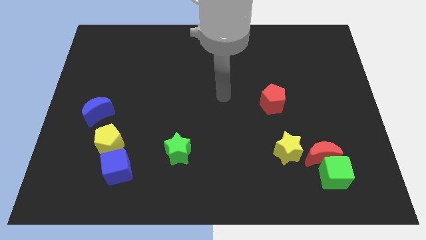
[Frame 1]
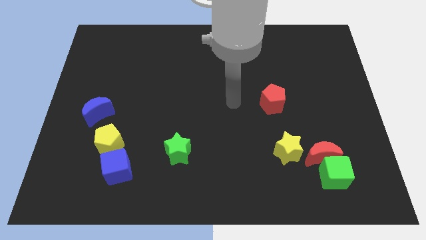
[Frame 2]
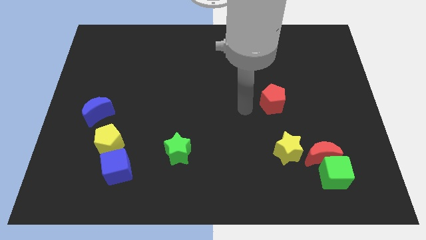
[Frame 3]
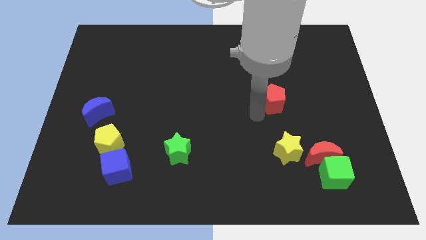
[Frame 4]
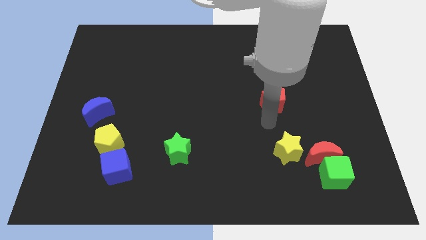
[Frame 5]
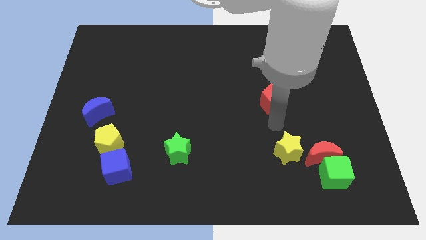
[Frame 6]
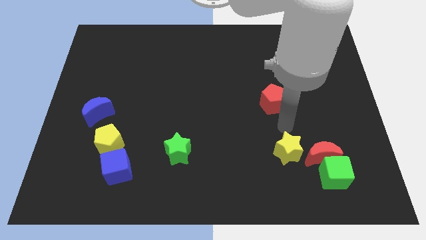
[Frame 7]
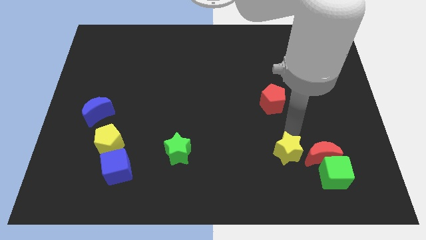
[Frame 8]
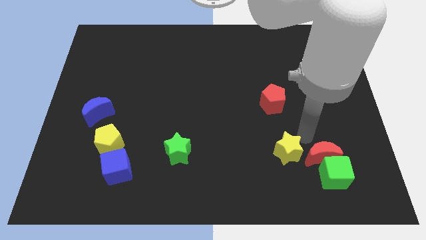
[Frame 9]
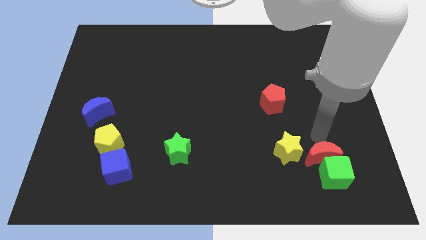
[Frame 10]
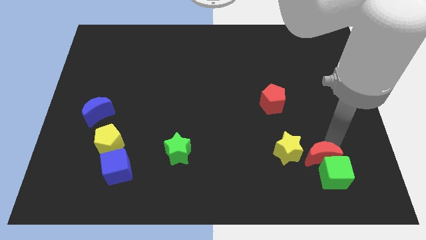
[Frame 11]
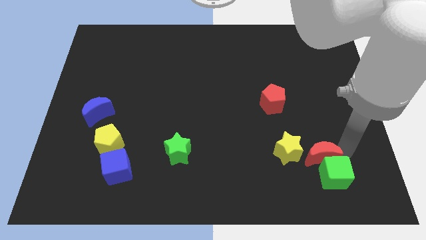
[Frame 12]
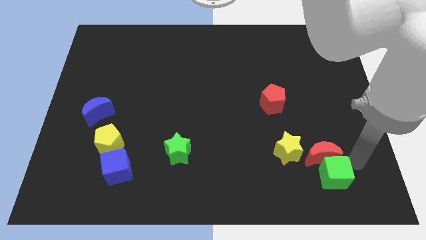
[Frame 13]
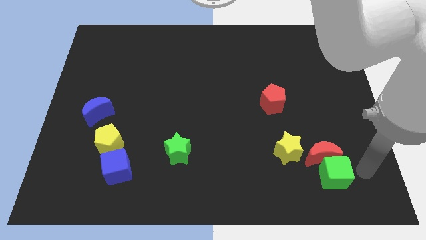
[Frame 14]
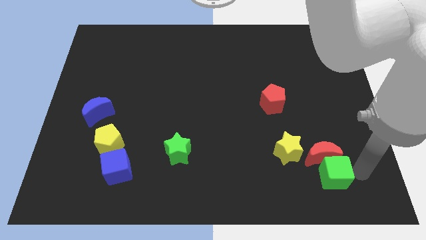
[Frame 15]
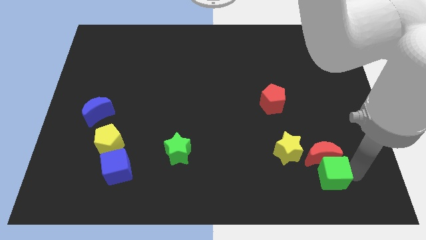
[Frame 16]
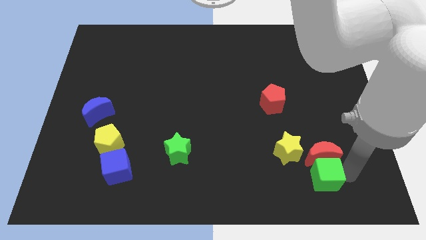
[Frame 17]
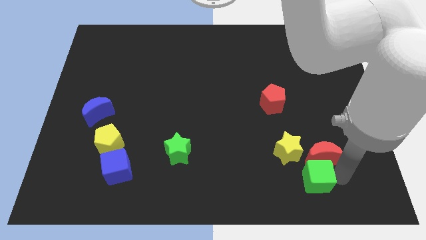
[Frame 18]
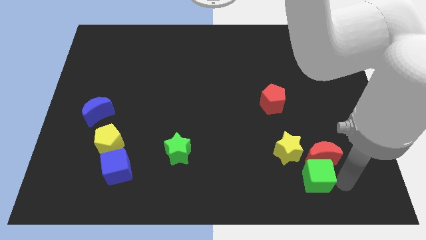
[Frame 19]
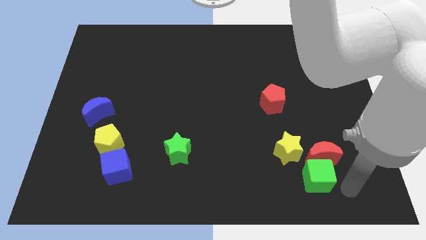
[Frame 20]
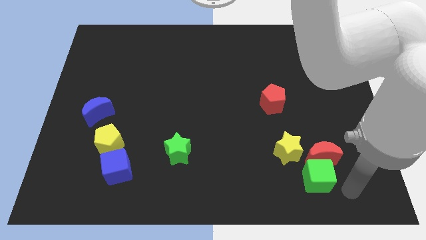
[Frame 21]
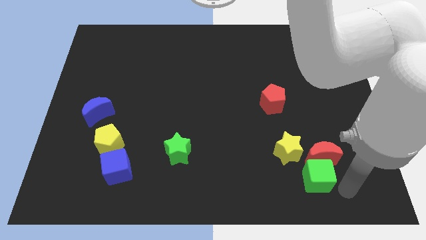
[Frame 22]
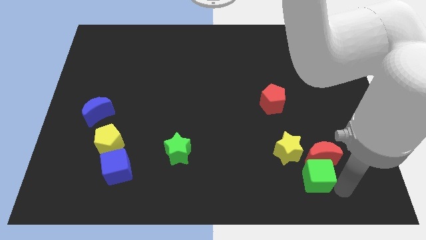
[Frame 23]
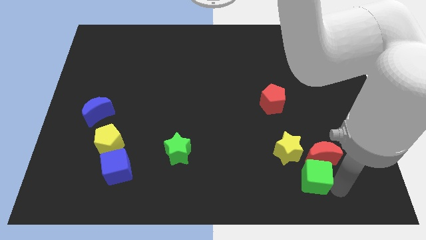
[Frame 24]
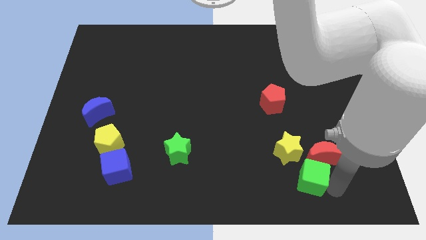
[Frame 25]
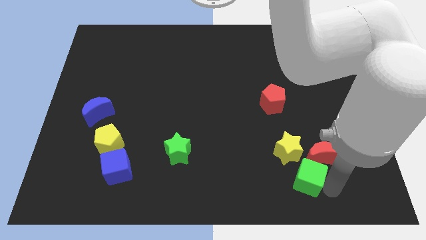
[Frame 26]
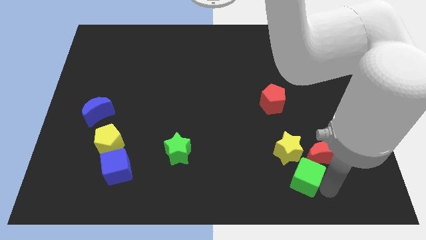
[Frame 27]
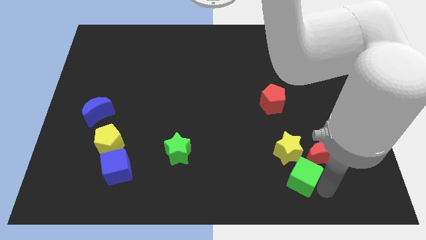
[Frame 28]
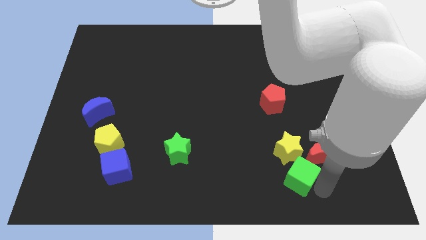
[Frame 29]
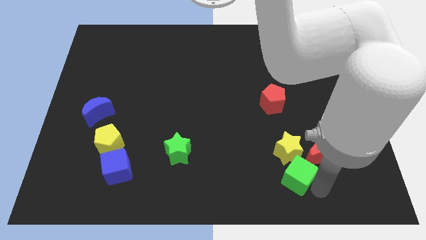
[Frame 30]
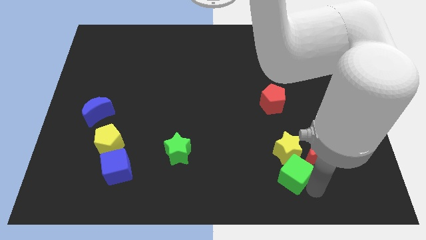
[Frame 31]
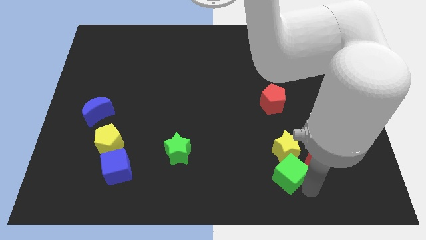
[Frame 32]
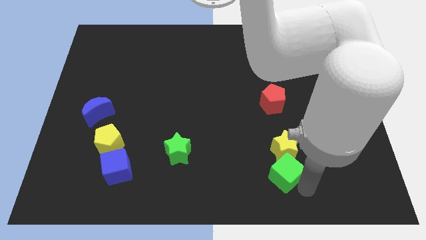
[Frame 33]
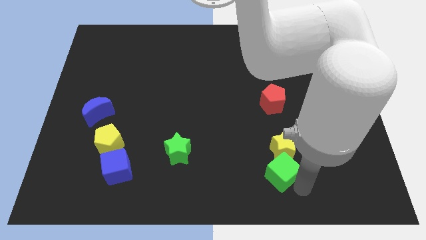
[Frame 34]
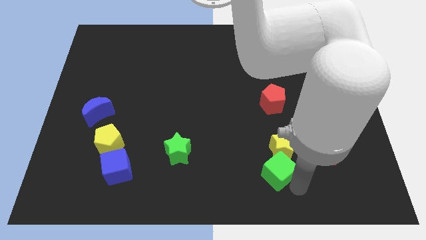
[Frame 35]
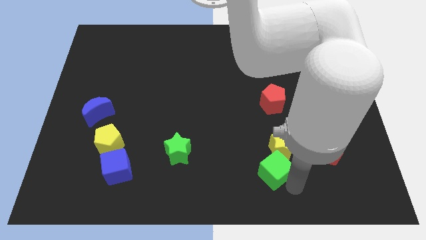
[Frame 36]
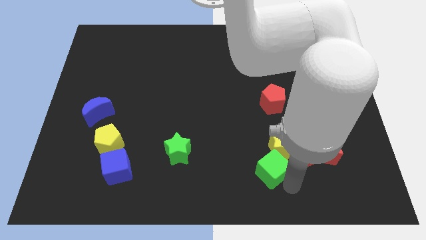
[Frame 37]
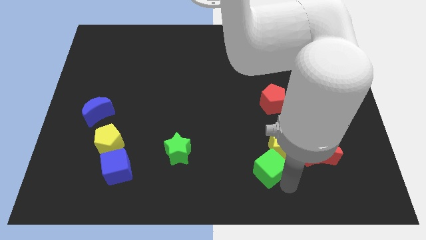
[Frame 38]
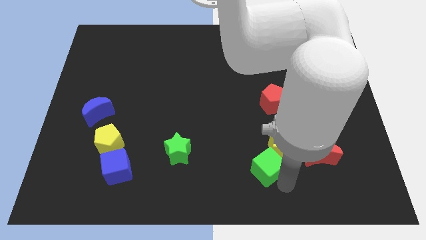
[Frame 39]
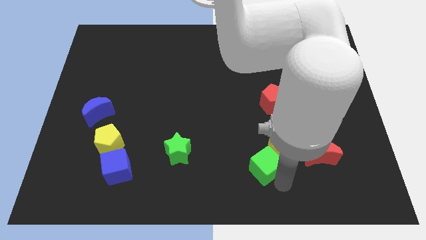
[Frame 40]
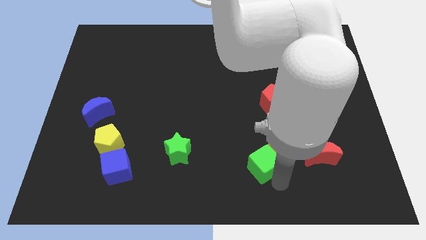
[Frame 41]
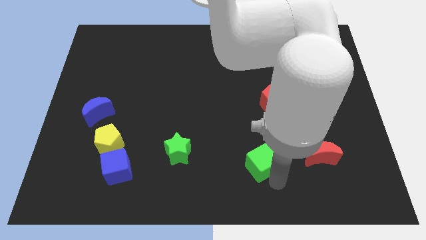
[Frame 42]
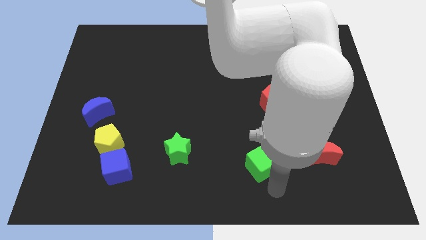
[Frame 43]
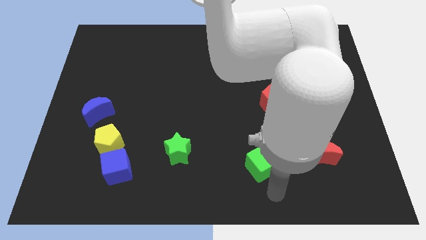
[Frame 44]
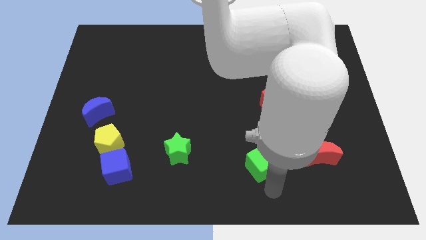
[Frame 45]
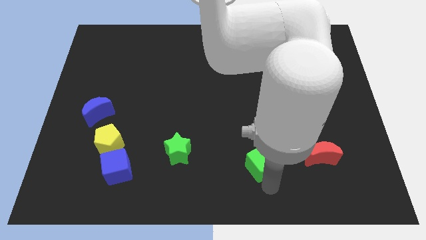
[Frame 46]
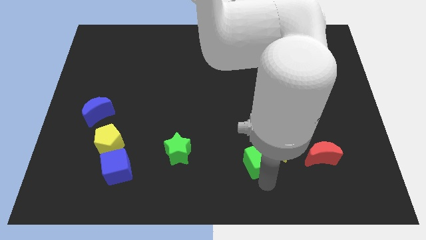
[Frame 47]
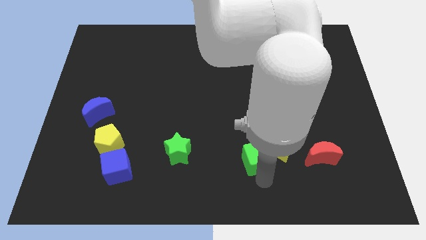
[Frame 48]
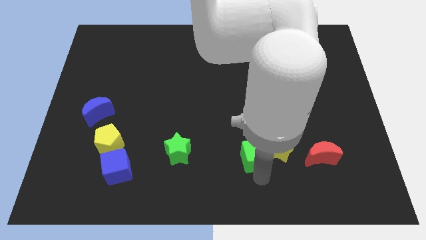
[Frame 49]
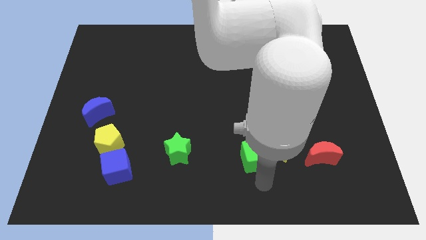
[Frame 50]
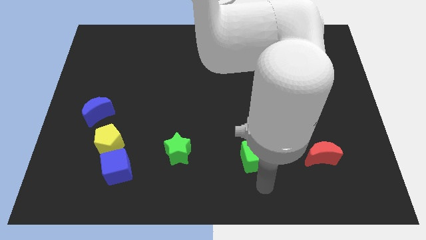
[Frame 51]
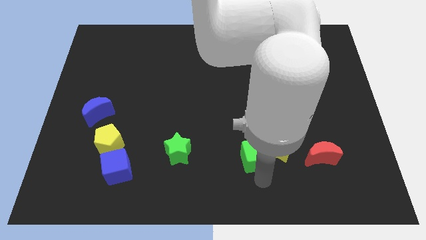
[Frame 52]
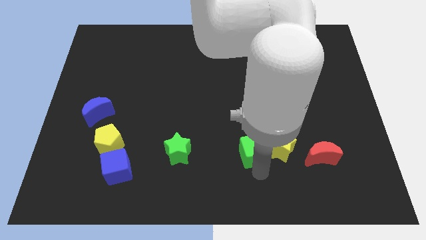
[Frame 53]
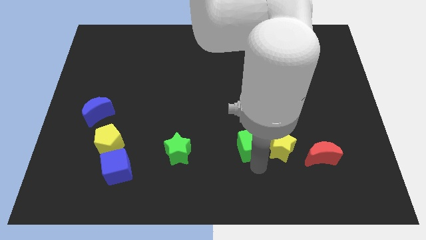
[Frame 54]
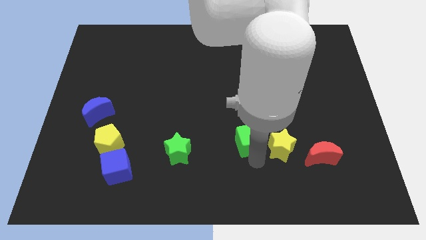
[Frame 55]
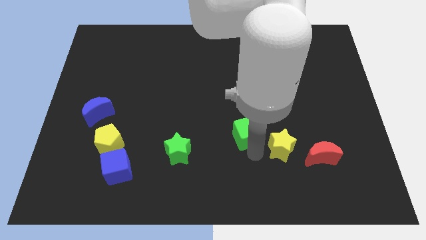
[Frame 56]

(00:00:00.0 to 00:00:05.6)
put the green cube to the center of the board
